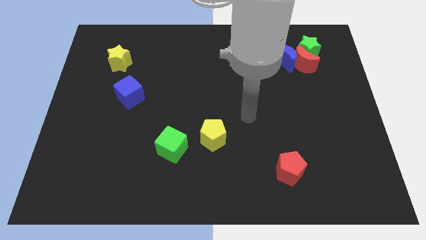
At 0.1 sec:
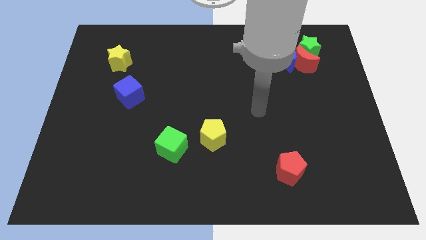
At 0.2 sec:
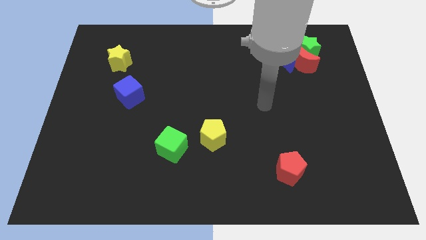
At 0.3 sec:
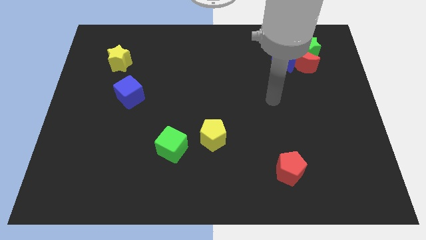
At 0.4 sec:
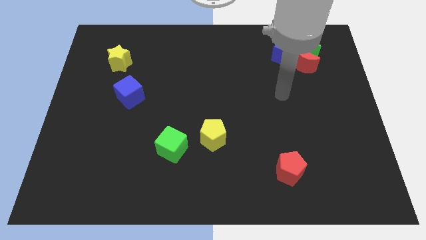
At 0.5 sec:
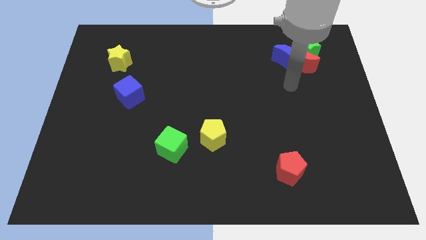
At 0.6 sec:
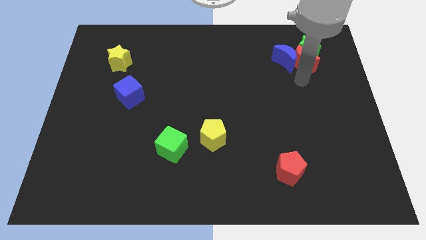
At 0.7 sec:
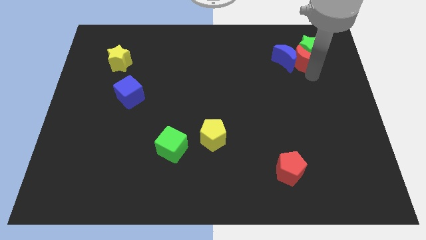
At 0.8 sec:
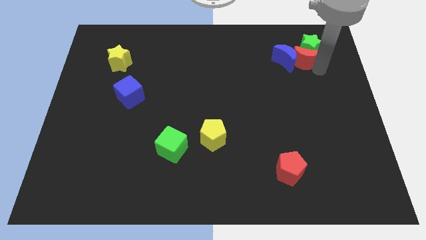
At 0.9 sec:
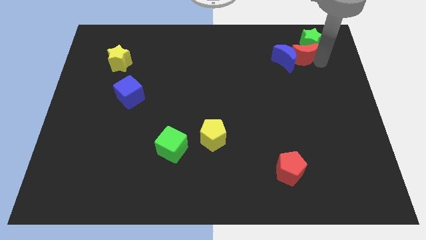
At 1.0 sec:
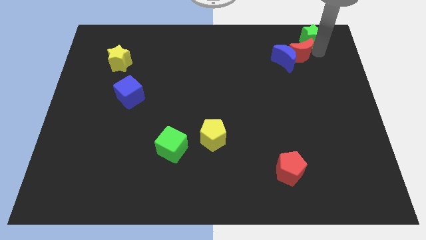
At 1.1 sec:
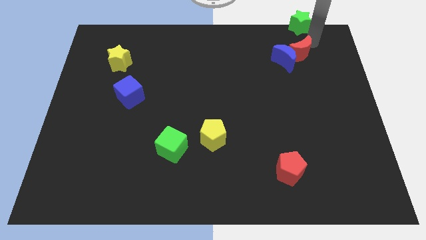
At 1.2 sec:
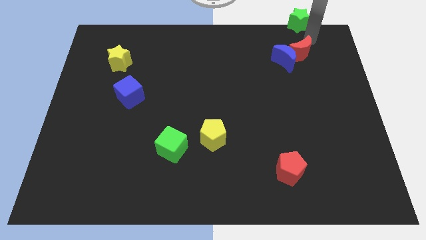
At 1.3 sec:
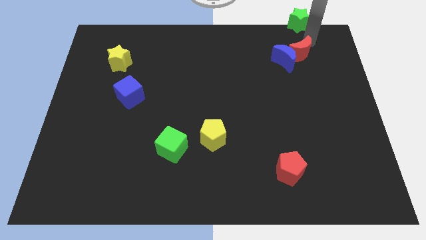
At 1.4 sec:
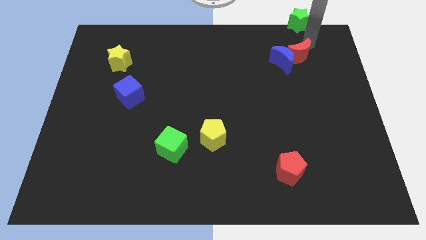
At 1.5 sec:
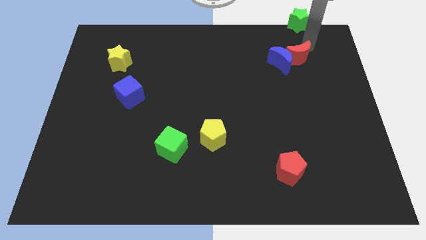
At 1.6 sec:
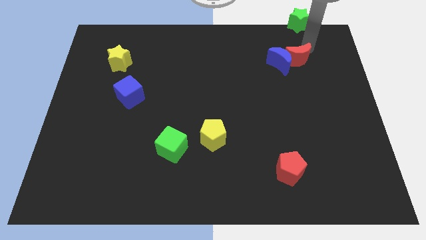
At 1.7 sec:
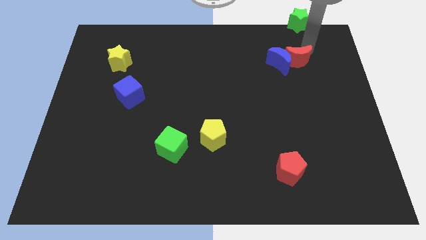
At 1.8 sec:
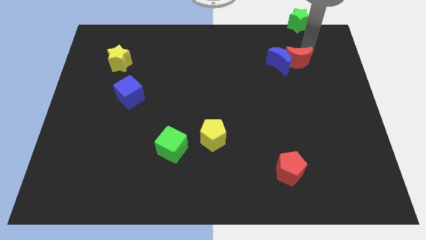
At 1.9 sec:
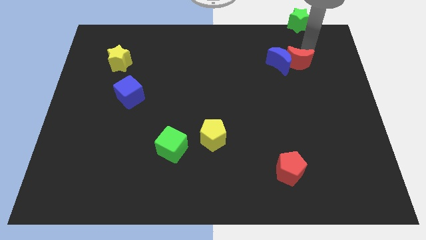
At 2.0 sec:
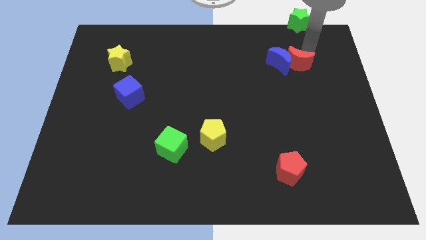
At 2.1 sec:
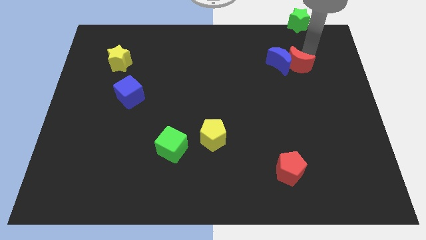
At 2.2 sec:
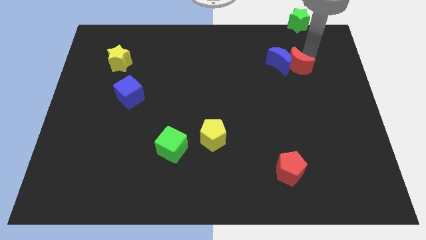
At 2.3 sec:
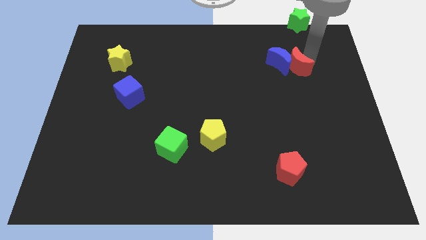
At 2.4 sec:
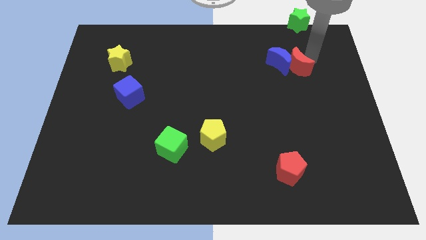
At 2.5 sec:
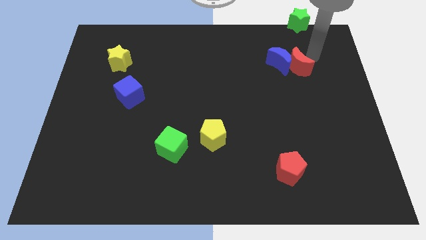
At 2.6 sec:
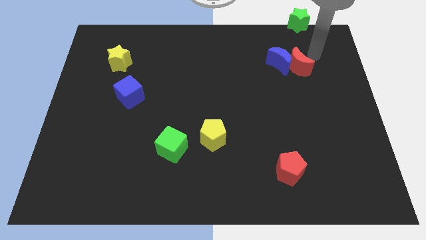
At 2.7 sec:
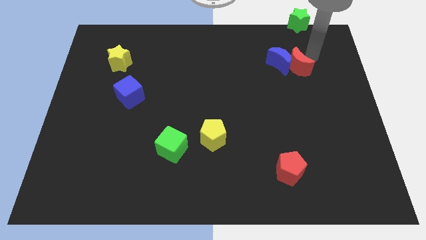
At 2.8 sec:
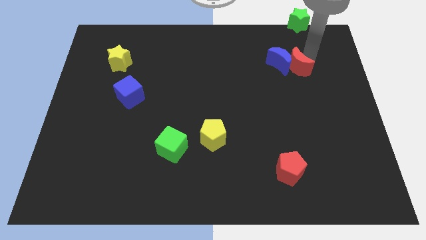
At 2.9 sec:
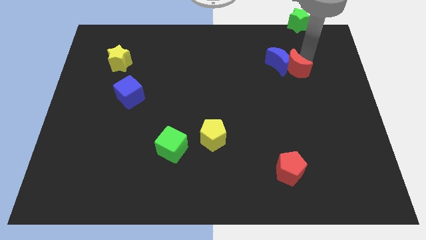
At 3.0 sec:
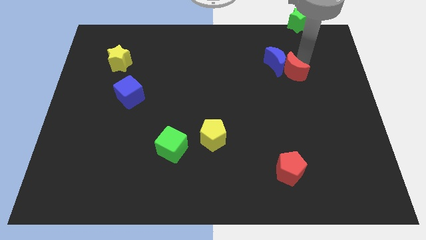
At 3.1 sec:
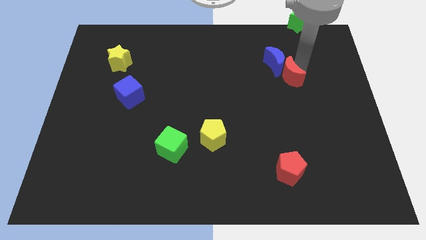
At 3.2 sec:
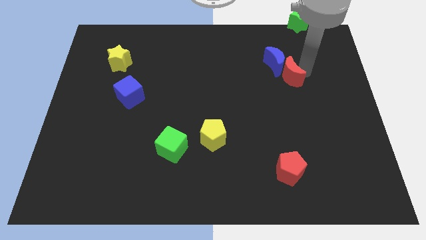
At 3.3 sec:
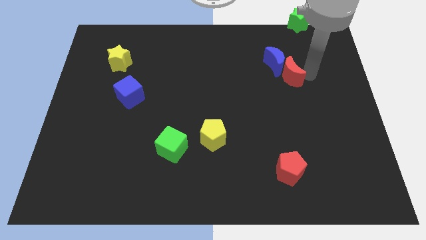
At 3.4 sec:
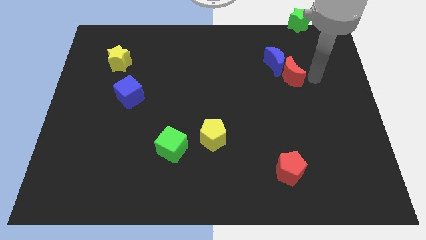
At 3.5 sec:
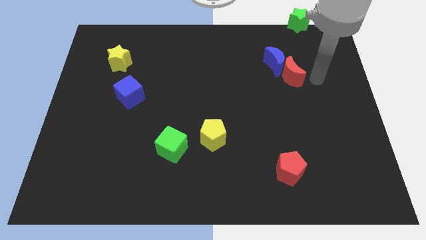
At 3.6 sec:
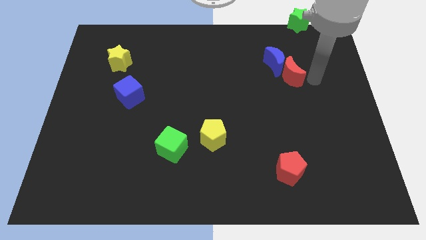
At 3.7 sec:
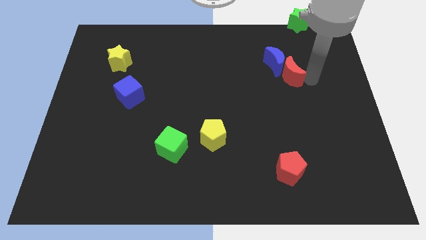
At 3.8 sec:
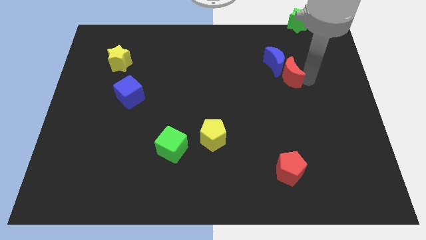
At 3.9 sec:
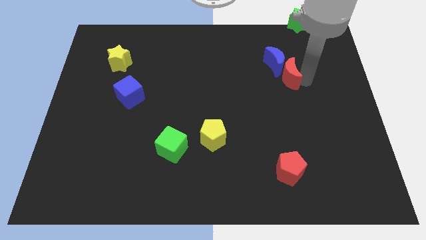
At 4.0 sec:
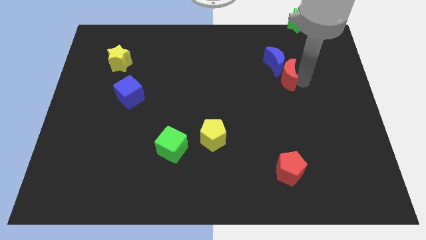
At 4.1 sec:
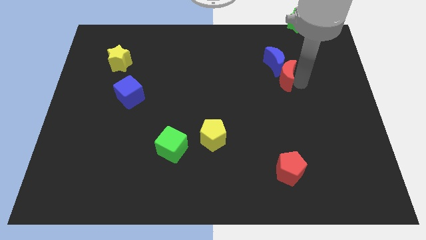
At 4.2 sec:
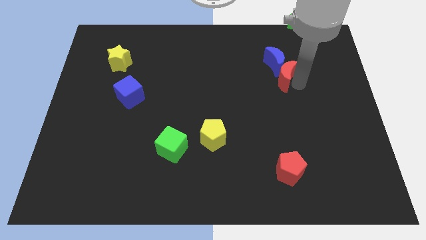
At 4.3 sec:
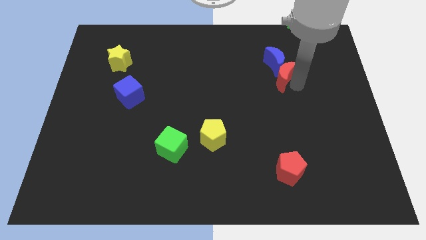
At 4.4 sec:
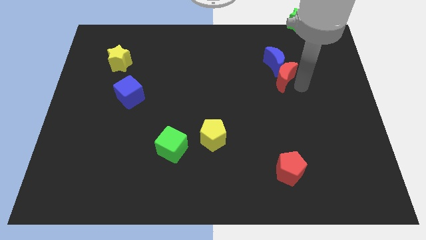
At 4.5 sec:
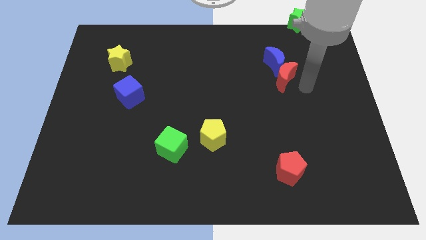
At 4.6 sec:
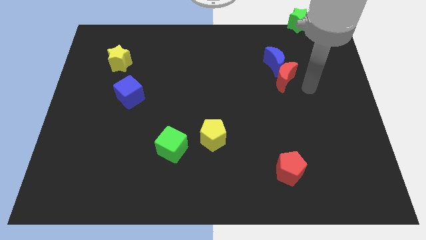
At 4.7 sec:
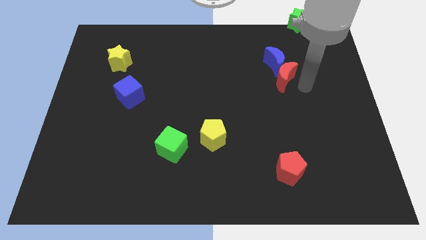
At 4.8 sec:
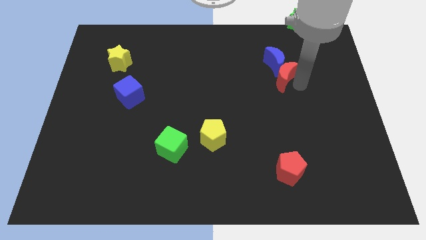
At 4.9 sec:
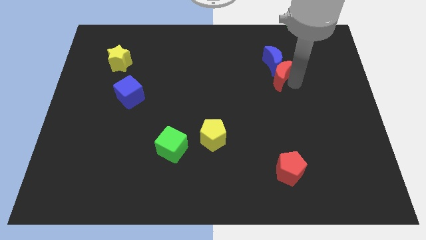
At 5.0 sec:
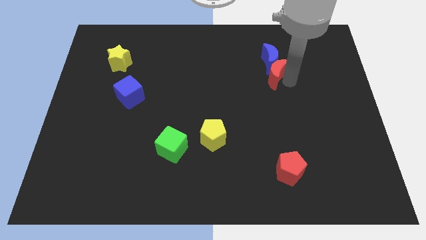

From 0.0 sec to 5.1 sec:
move the red moon slightly to the left

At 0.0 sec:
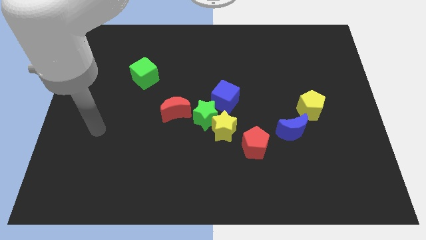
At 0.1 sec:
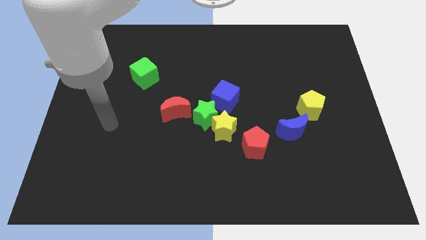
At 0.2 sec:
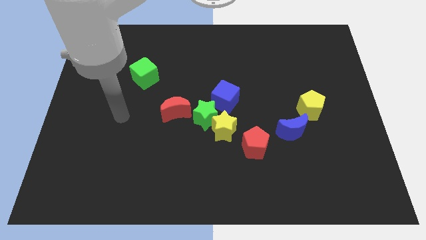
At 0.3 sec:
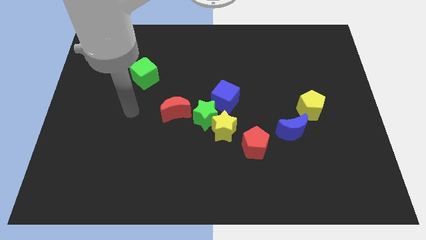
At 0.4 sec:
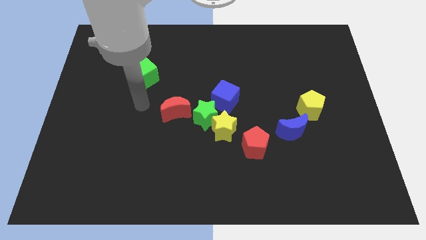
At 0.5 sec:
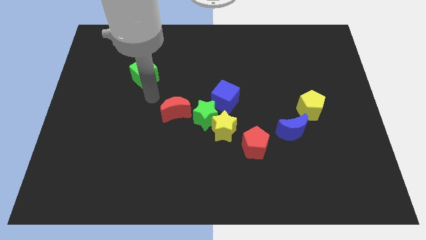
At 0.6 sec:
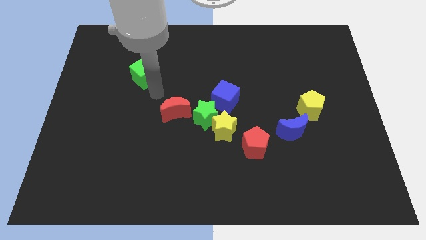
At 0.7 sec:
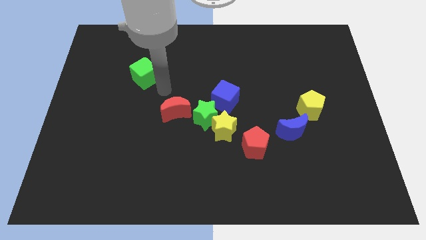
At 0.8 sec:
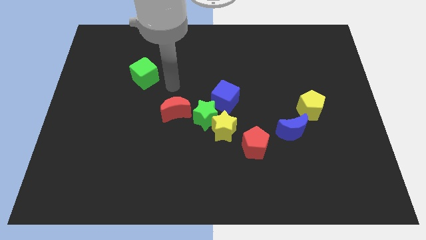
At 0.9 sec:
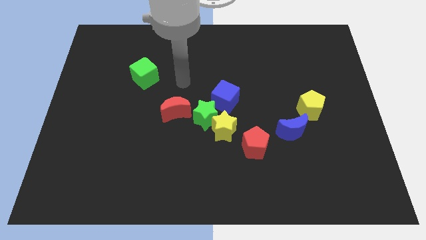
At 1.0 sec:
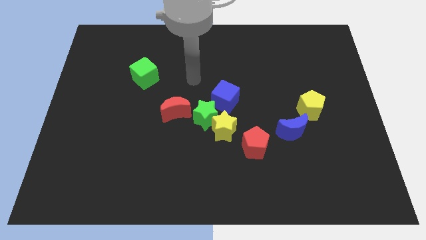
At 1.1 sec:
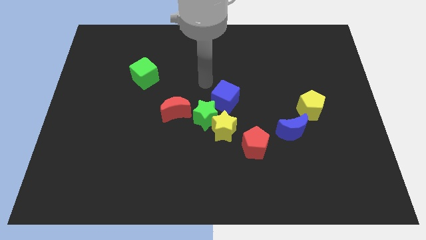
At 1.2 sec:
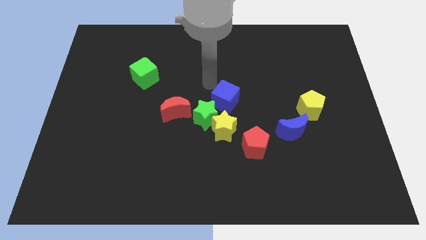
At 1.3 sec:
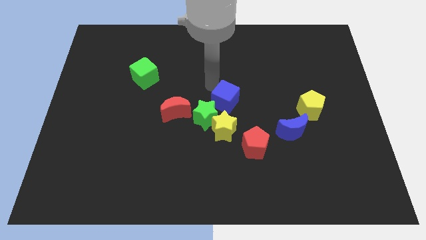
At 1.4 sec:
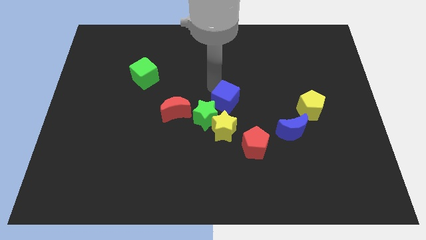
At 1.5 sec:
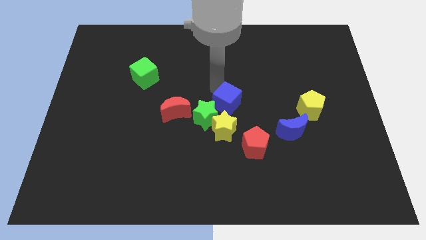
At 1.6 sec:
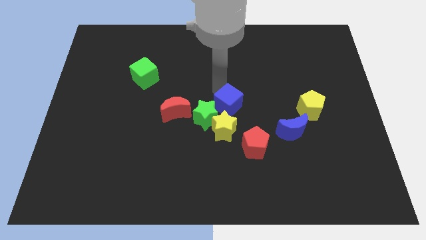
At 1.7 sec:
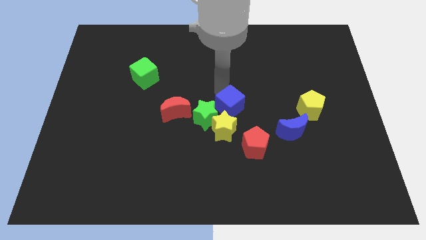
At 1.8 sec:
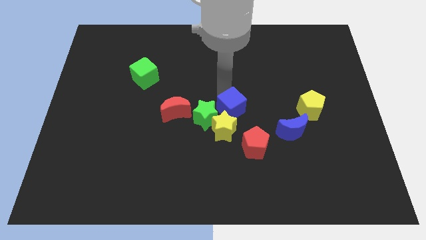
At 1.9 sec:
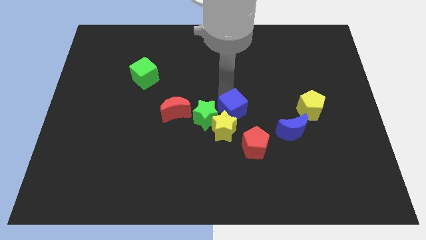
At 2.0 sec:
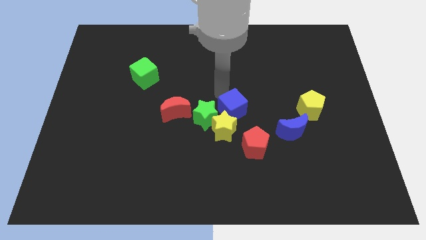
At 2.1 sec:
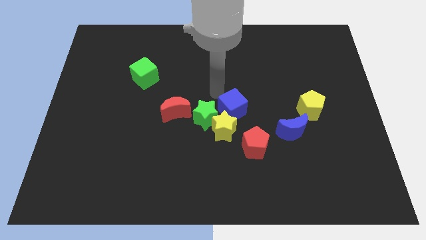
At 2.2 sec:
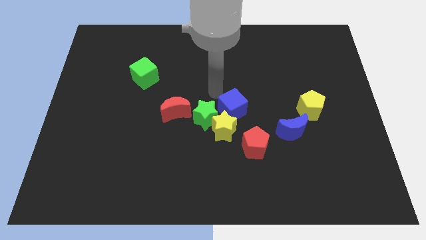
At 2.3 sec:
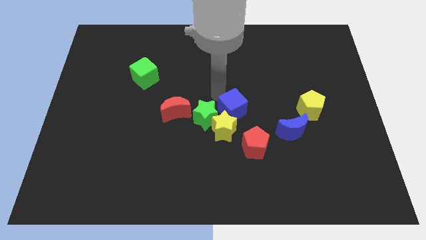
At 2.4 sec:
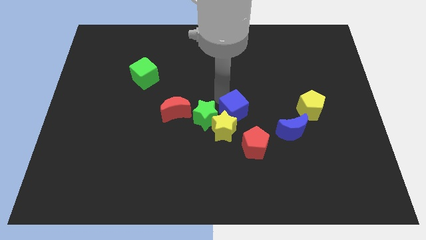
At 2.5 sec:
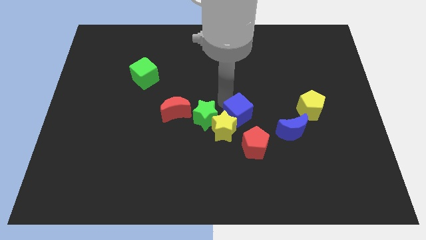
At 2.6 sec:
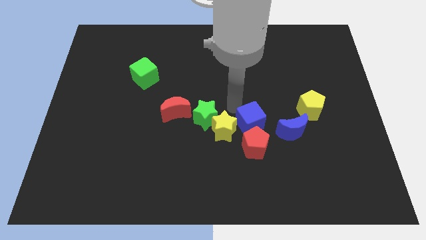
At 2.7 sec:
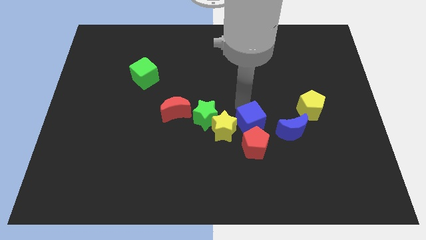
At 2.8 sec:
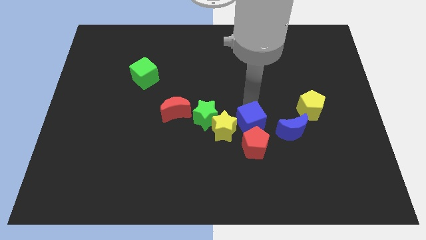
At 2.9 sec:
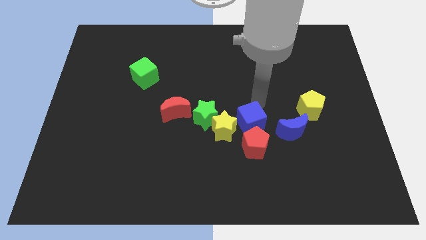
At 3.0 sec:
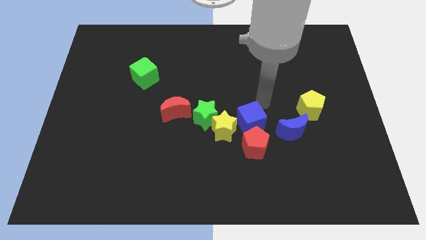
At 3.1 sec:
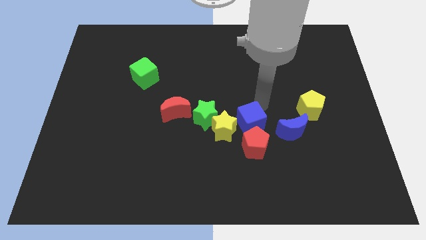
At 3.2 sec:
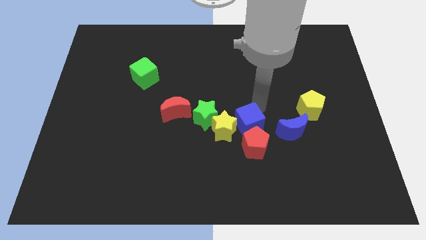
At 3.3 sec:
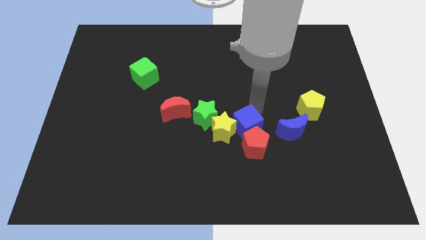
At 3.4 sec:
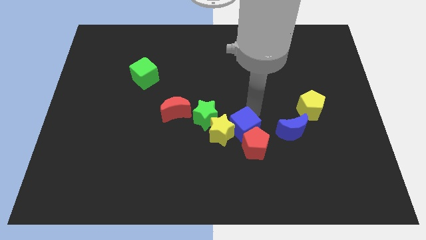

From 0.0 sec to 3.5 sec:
move the blue cube down somewhat
